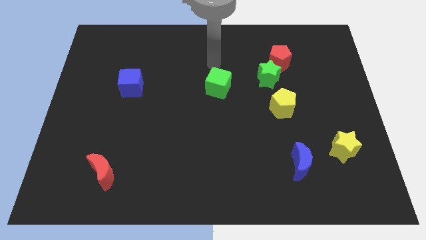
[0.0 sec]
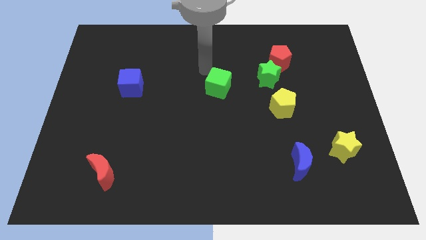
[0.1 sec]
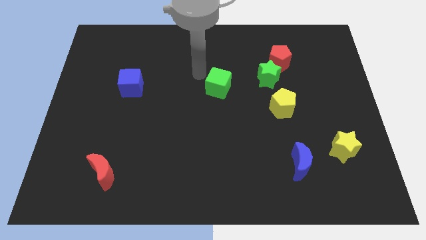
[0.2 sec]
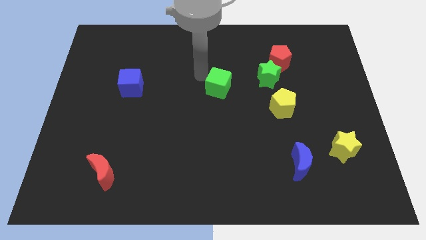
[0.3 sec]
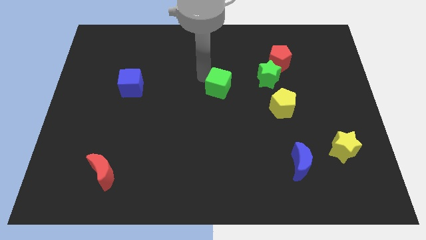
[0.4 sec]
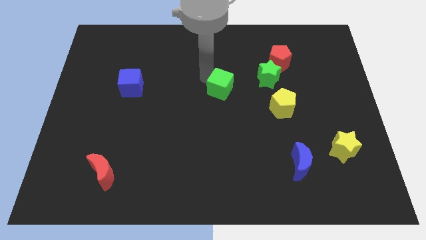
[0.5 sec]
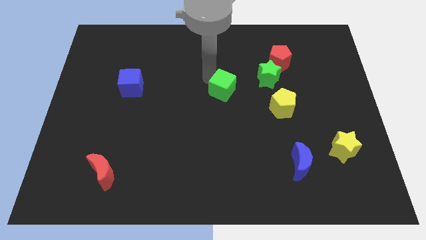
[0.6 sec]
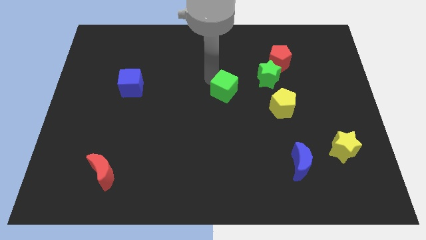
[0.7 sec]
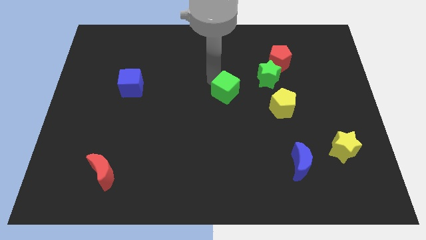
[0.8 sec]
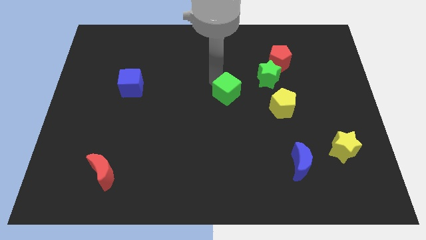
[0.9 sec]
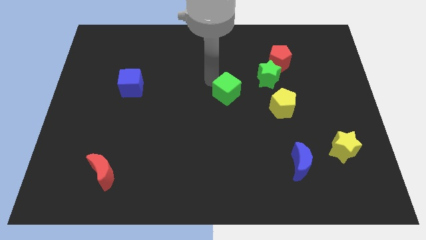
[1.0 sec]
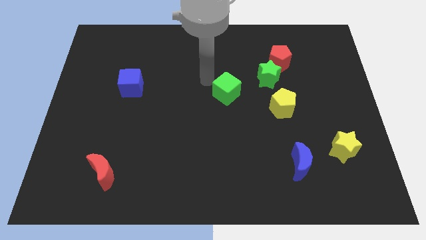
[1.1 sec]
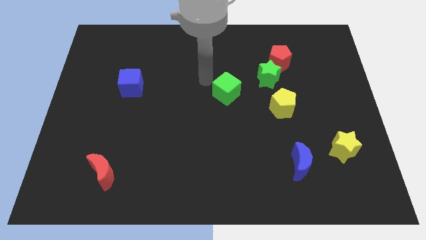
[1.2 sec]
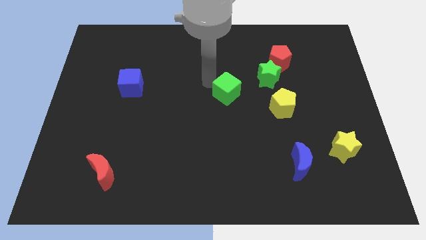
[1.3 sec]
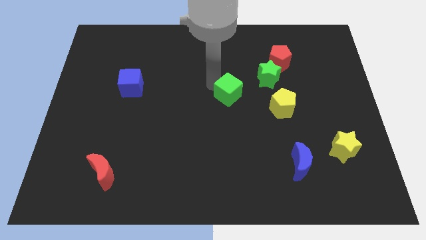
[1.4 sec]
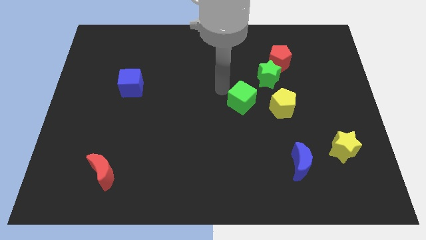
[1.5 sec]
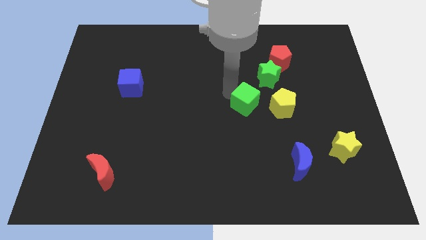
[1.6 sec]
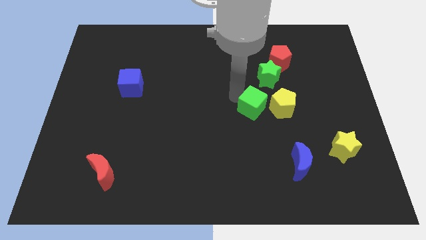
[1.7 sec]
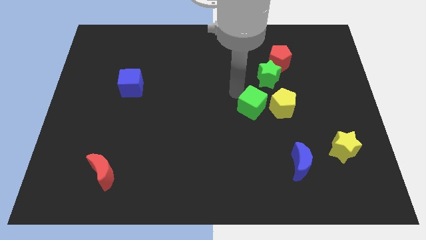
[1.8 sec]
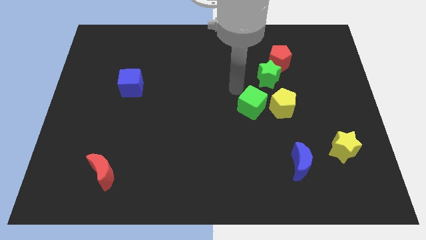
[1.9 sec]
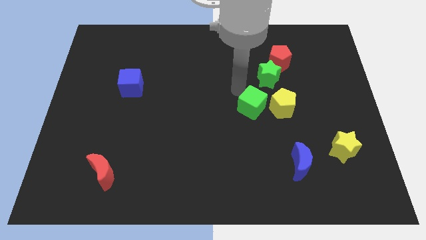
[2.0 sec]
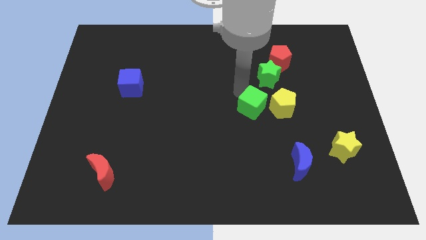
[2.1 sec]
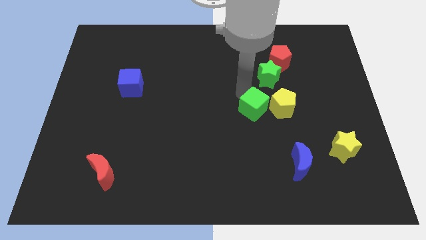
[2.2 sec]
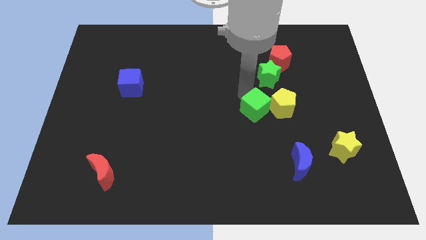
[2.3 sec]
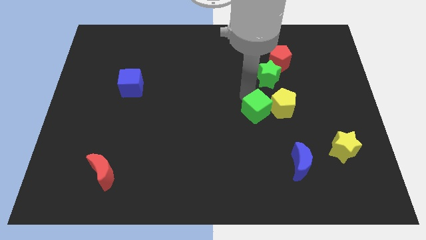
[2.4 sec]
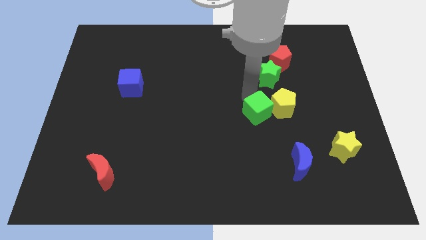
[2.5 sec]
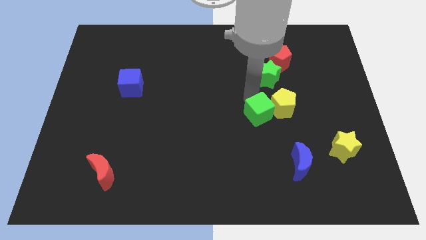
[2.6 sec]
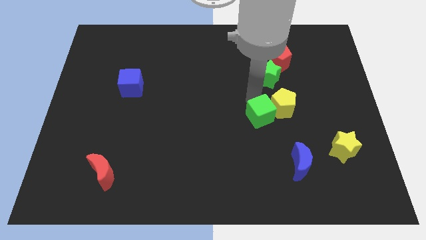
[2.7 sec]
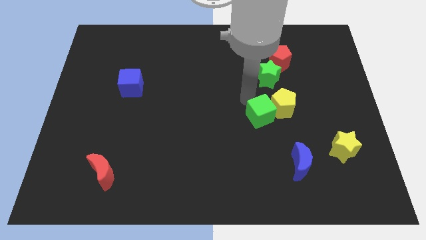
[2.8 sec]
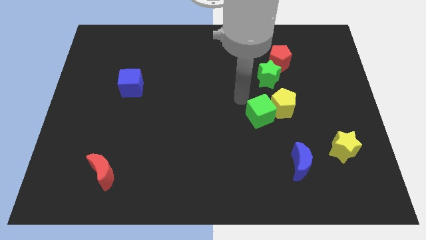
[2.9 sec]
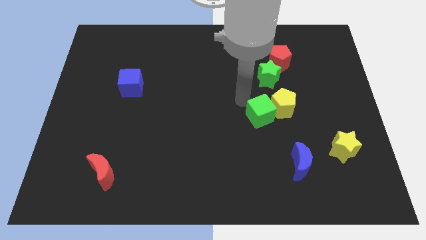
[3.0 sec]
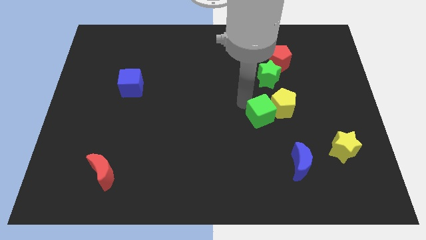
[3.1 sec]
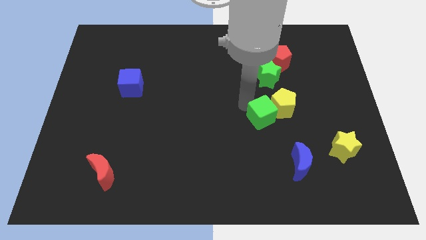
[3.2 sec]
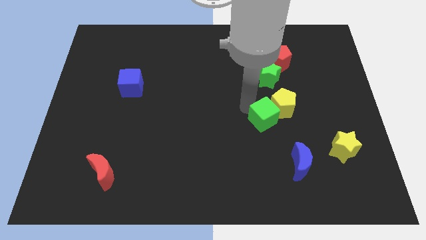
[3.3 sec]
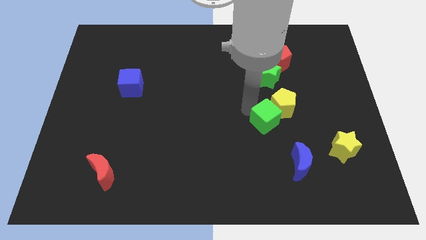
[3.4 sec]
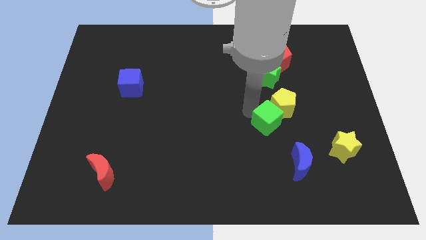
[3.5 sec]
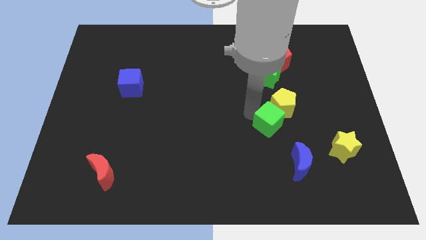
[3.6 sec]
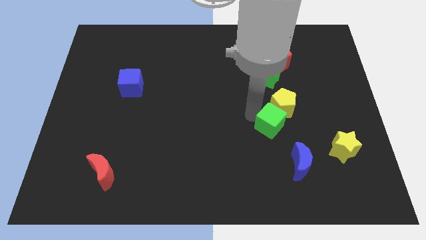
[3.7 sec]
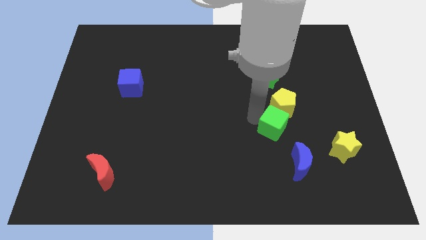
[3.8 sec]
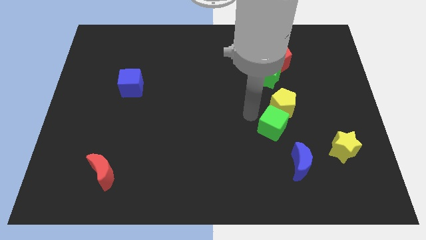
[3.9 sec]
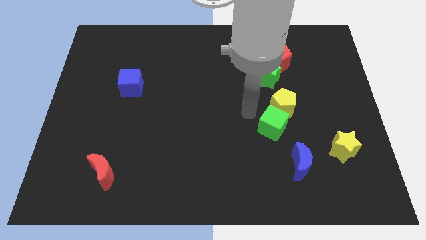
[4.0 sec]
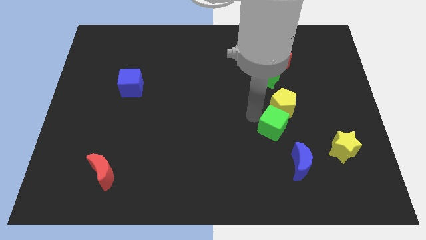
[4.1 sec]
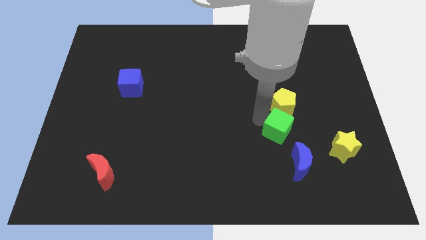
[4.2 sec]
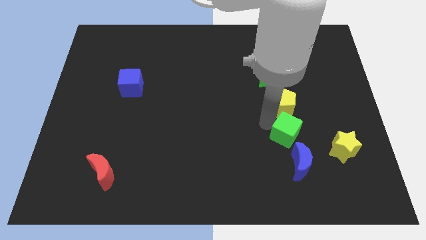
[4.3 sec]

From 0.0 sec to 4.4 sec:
push the green cube downwards and then right

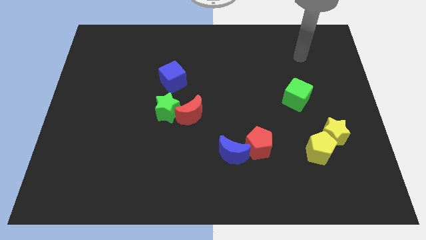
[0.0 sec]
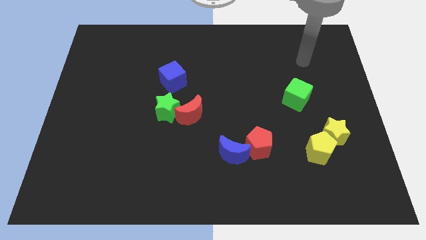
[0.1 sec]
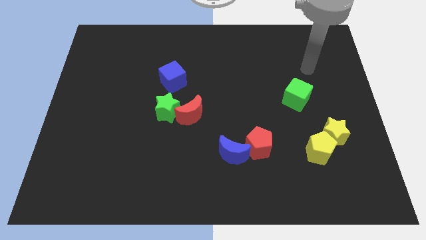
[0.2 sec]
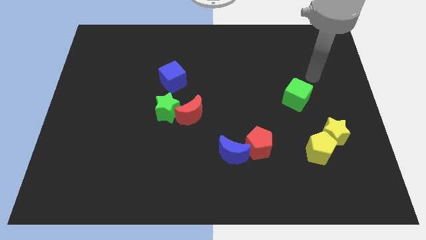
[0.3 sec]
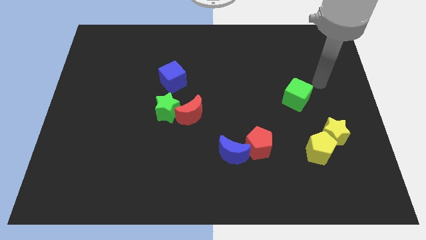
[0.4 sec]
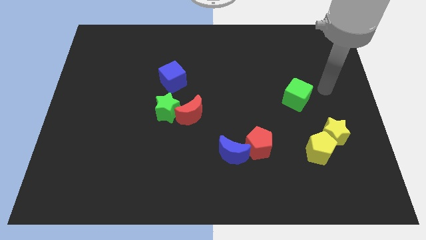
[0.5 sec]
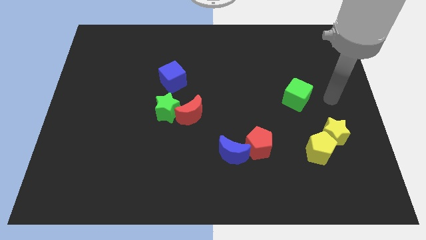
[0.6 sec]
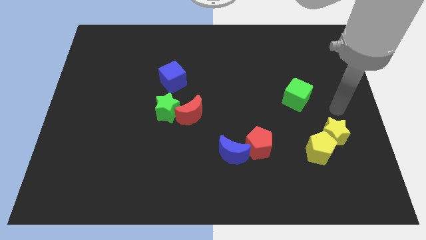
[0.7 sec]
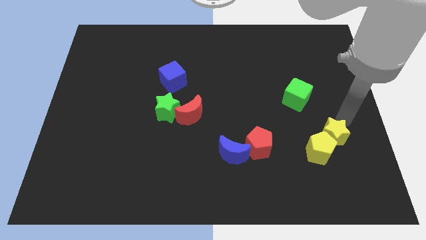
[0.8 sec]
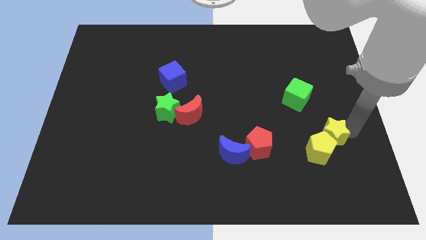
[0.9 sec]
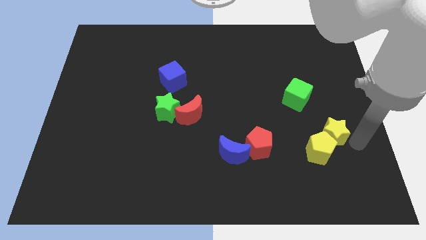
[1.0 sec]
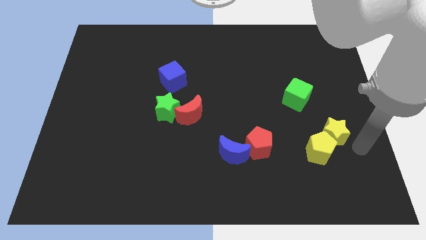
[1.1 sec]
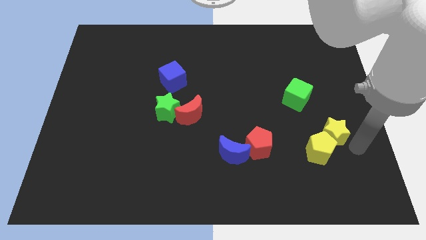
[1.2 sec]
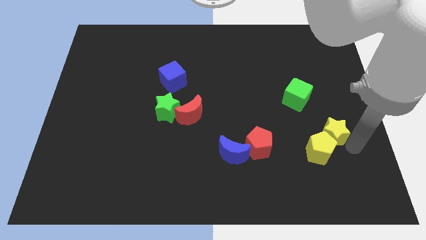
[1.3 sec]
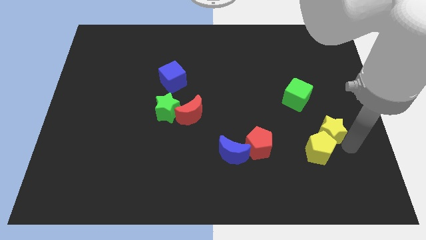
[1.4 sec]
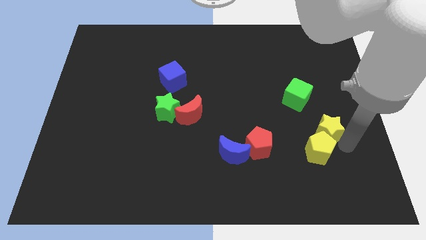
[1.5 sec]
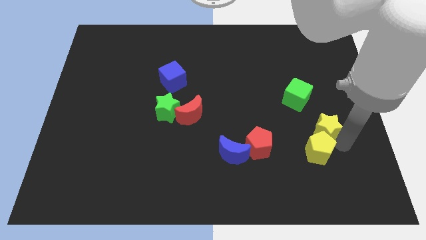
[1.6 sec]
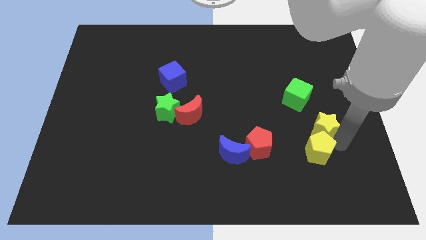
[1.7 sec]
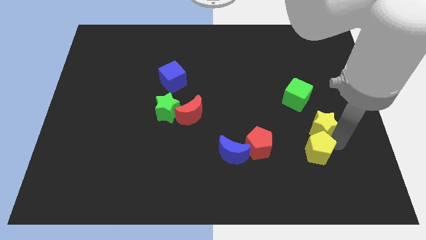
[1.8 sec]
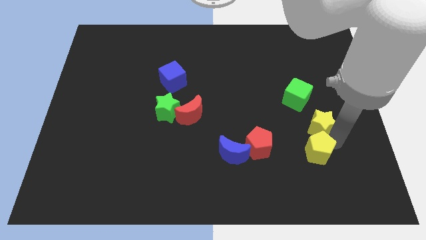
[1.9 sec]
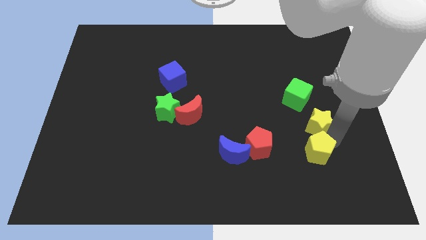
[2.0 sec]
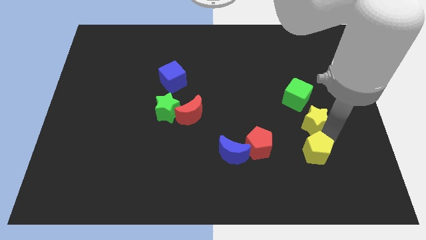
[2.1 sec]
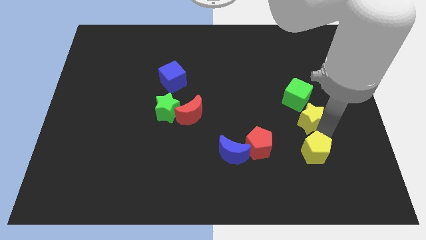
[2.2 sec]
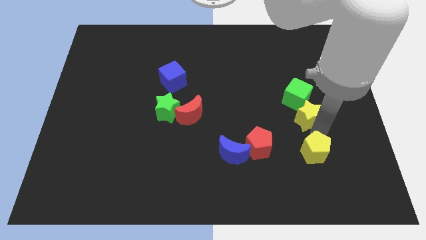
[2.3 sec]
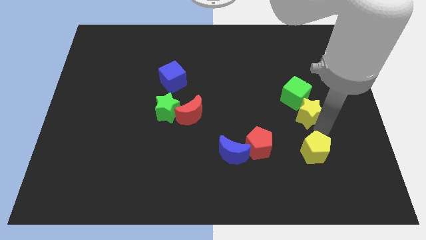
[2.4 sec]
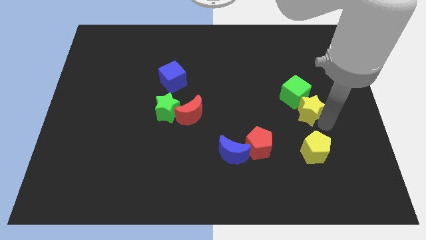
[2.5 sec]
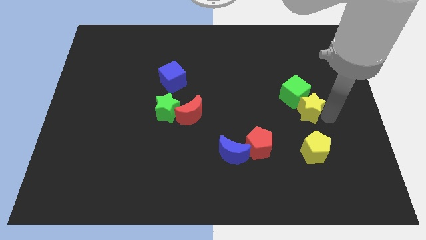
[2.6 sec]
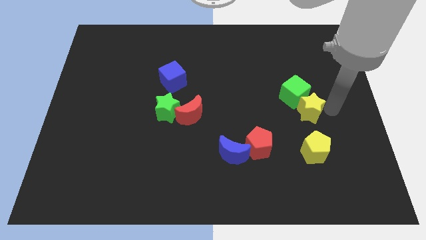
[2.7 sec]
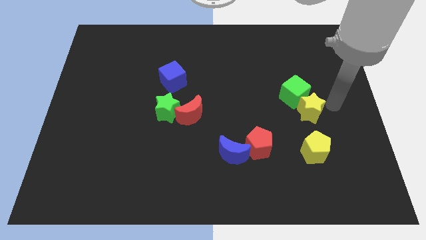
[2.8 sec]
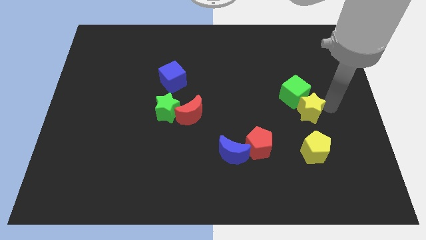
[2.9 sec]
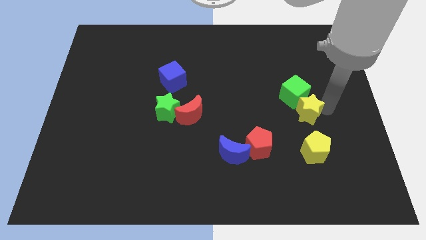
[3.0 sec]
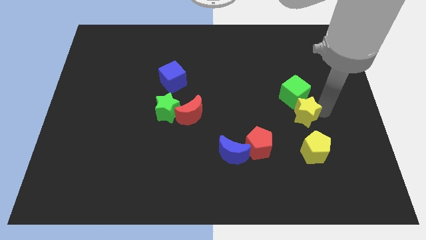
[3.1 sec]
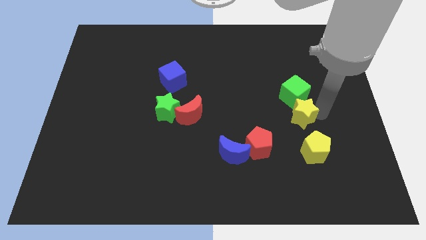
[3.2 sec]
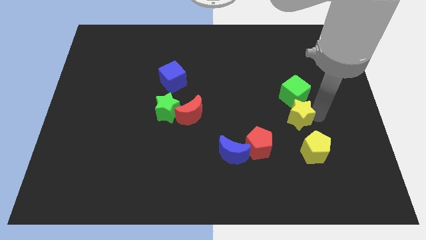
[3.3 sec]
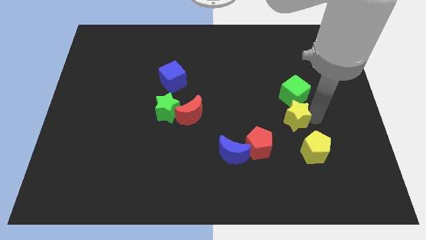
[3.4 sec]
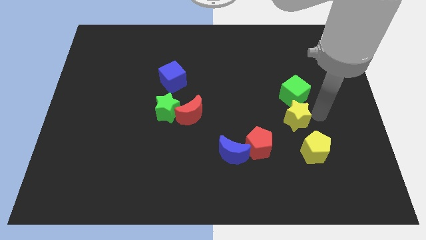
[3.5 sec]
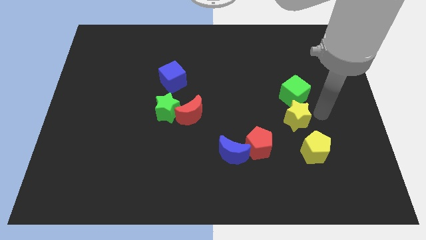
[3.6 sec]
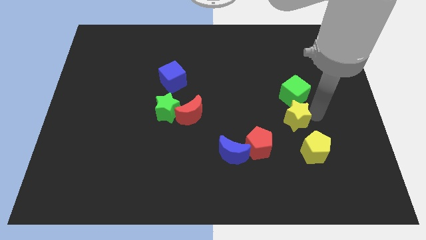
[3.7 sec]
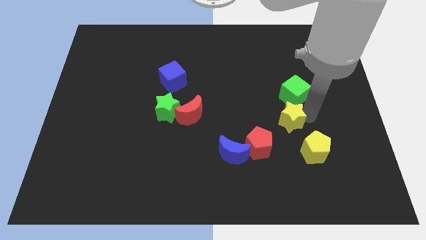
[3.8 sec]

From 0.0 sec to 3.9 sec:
push the yellow star somewhat to the left
